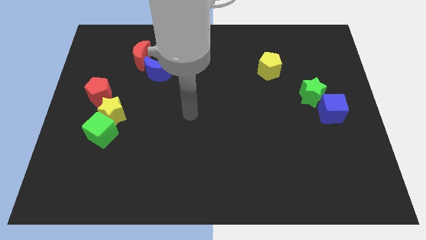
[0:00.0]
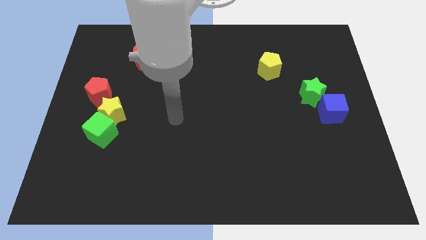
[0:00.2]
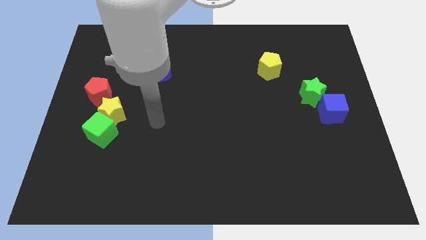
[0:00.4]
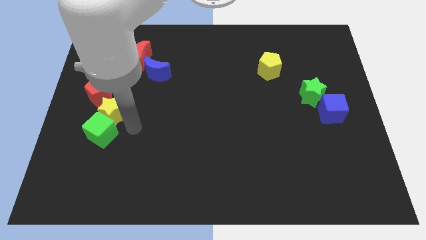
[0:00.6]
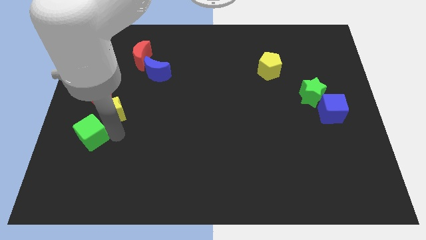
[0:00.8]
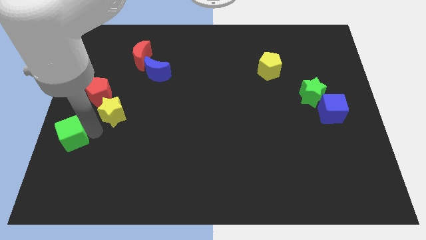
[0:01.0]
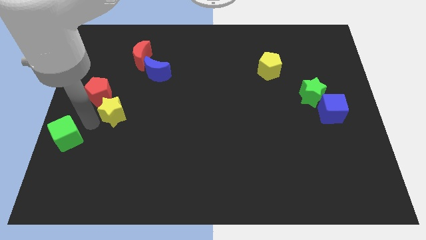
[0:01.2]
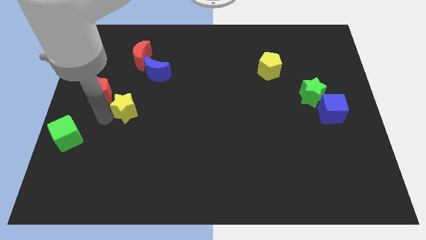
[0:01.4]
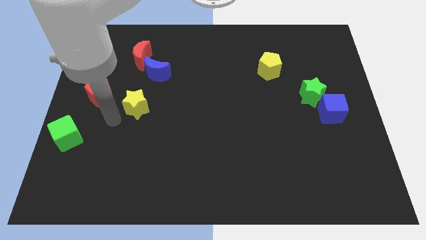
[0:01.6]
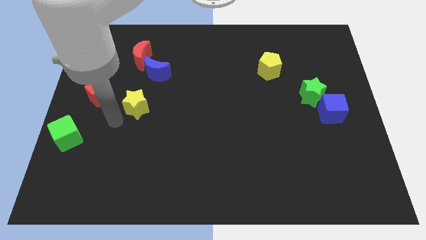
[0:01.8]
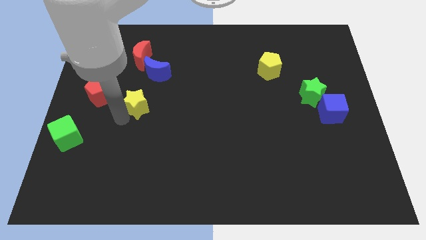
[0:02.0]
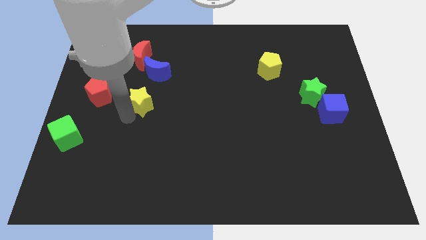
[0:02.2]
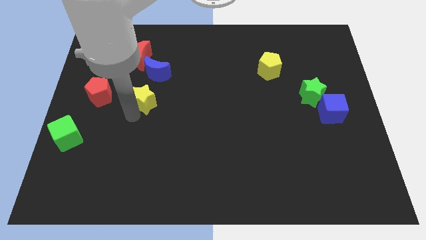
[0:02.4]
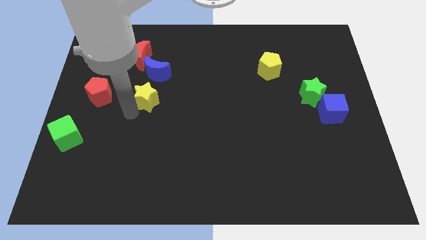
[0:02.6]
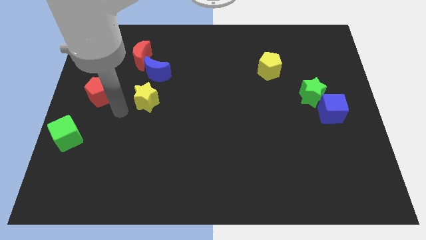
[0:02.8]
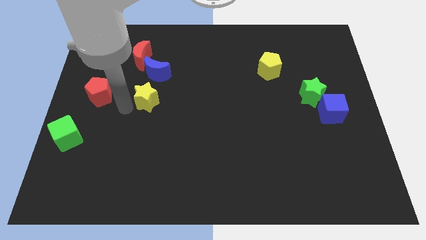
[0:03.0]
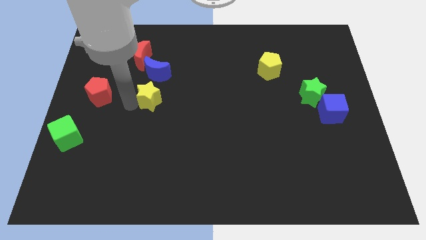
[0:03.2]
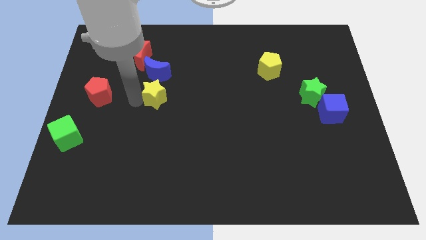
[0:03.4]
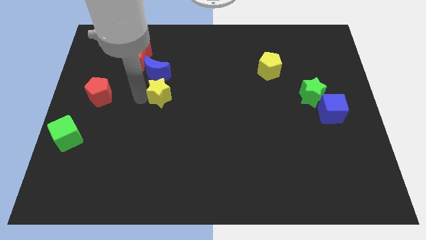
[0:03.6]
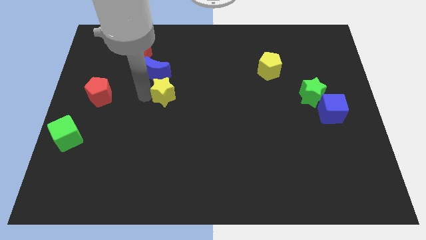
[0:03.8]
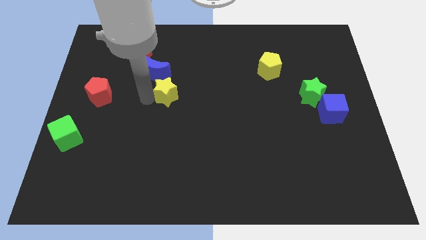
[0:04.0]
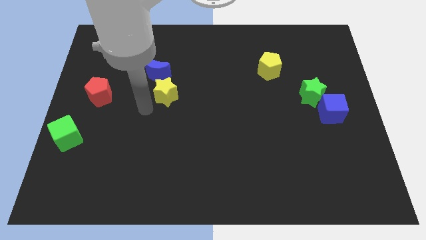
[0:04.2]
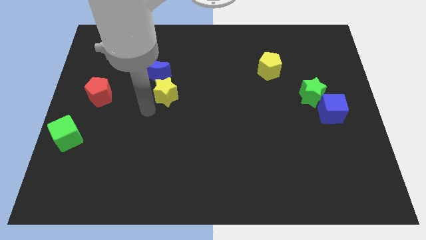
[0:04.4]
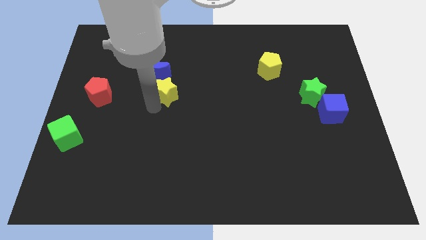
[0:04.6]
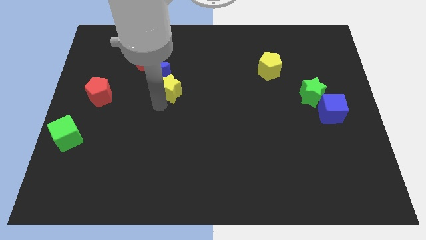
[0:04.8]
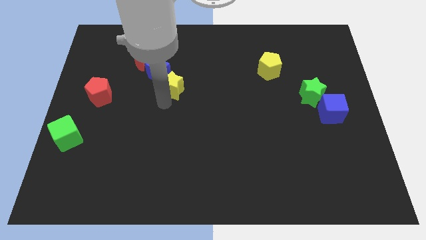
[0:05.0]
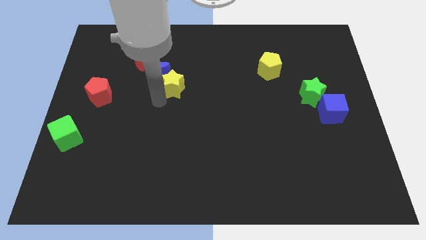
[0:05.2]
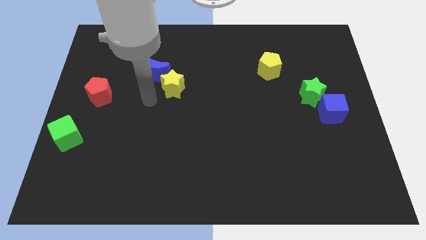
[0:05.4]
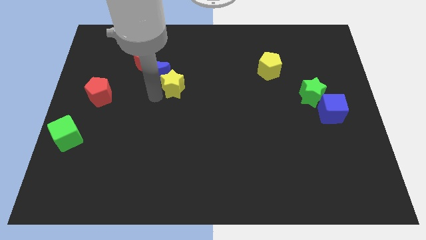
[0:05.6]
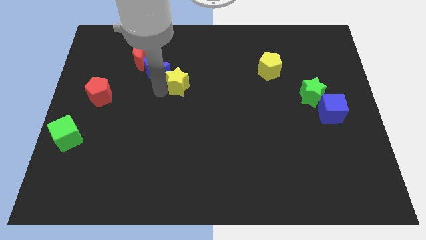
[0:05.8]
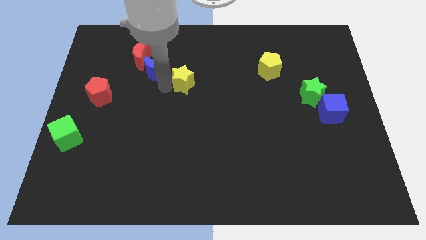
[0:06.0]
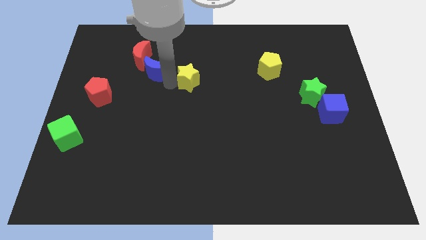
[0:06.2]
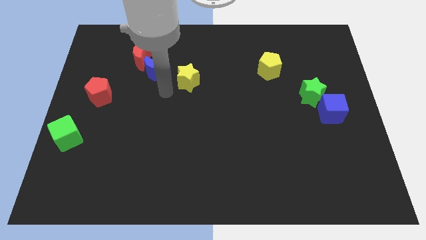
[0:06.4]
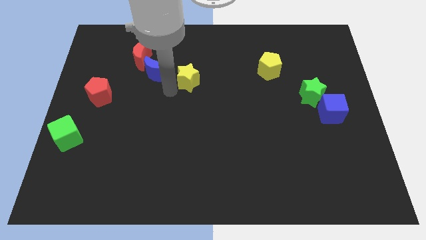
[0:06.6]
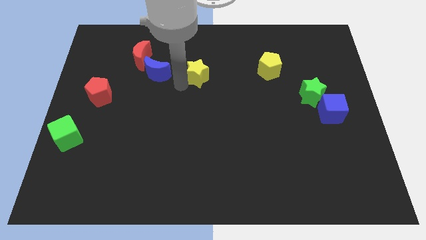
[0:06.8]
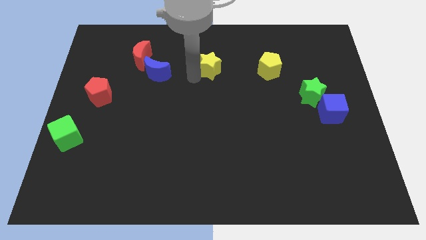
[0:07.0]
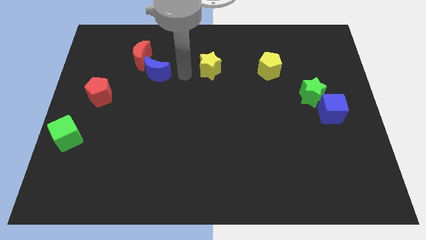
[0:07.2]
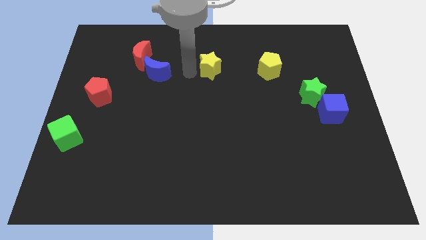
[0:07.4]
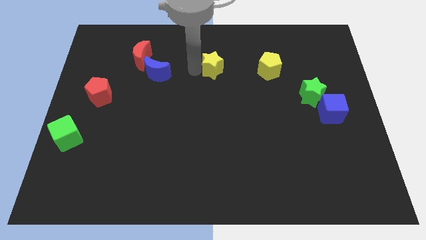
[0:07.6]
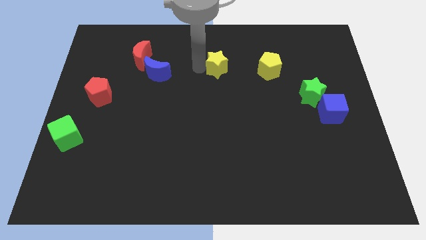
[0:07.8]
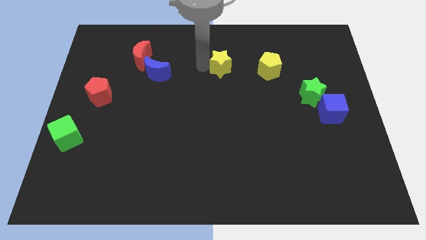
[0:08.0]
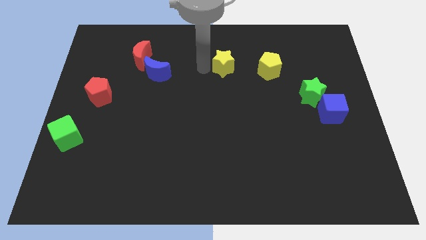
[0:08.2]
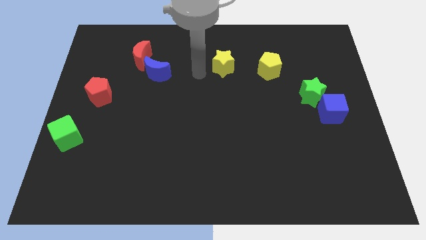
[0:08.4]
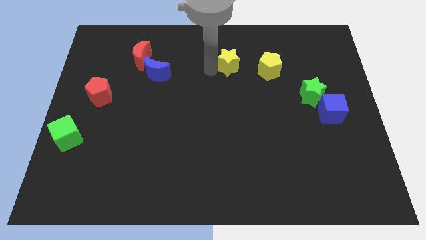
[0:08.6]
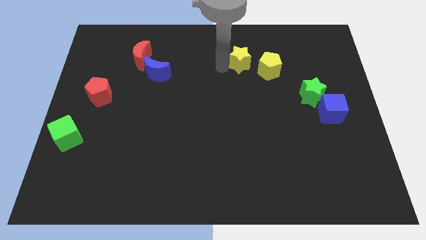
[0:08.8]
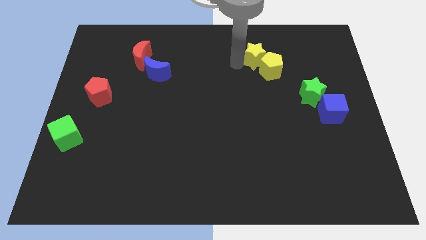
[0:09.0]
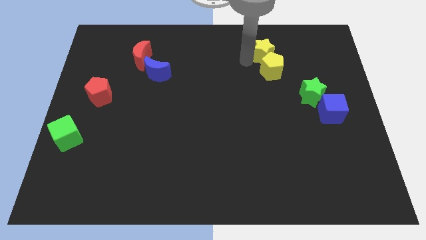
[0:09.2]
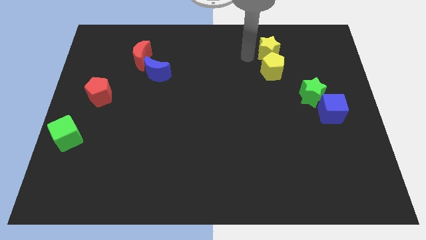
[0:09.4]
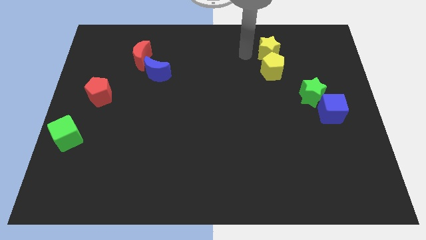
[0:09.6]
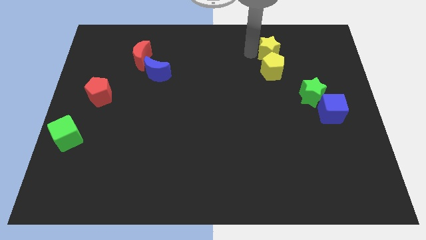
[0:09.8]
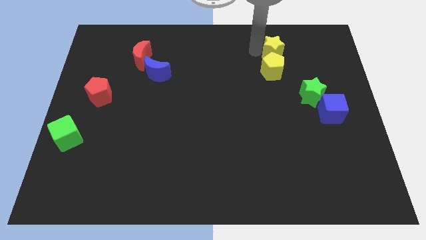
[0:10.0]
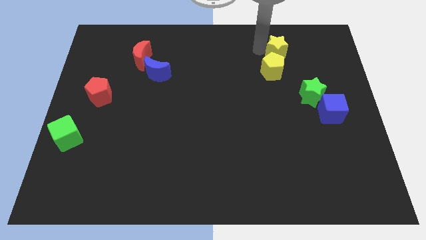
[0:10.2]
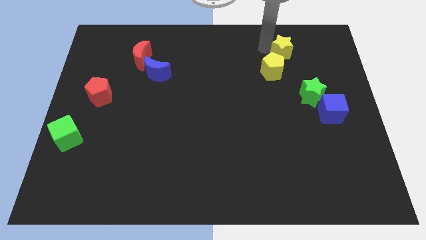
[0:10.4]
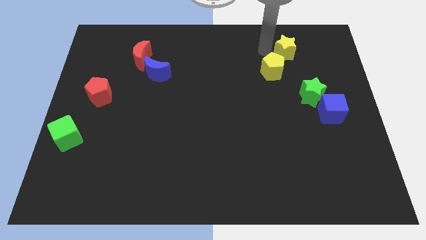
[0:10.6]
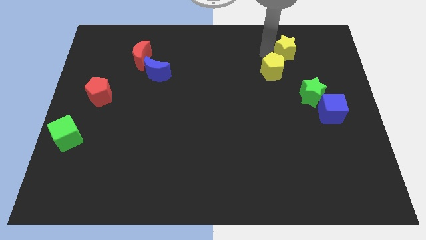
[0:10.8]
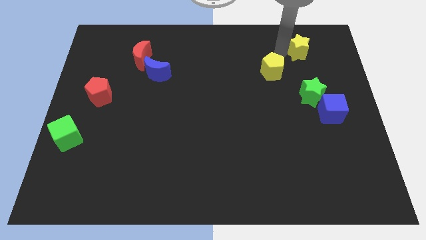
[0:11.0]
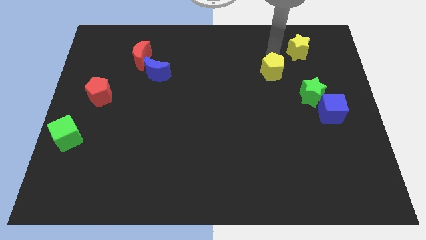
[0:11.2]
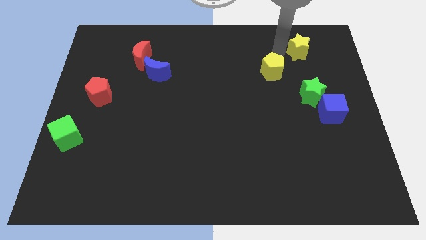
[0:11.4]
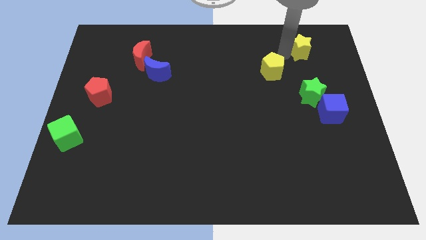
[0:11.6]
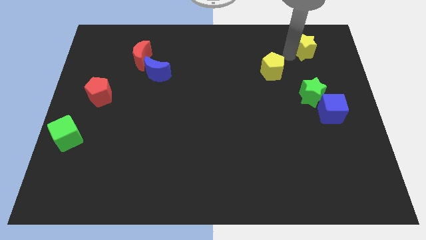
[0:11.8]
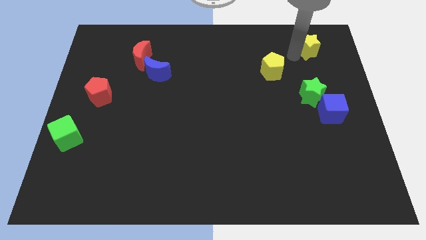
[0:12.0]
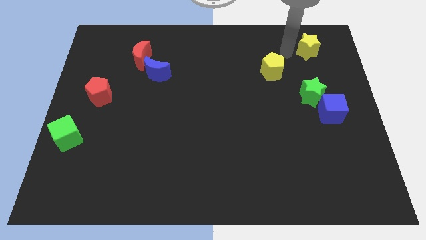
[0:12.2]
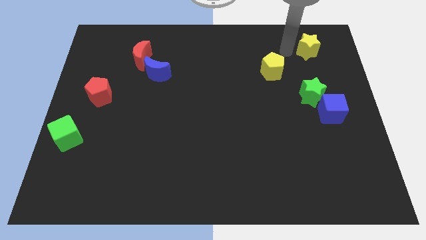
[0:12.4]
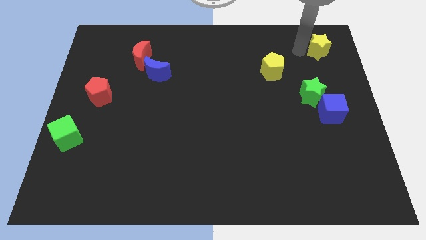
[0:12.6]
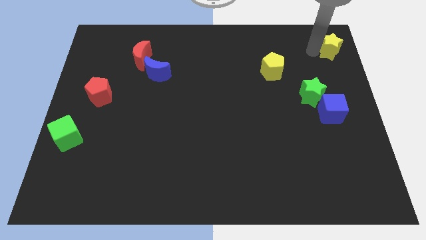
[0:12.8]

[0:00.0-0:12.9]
move the yellow star to the top right corner
